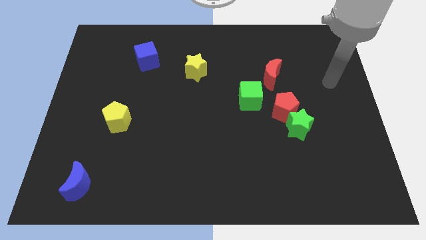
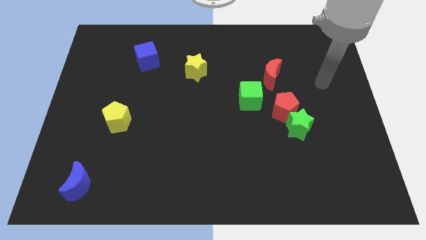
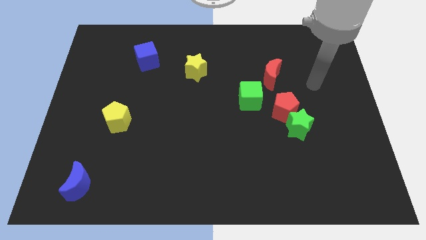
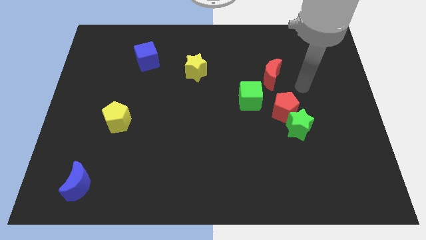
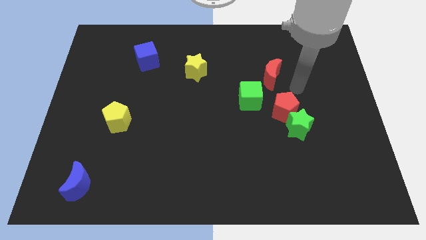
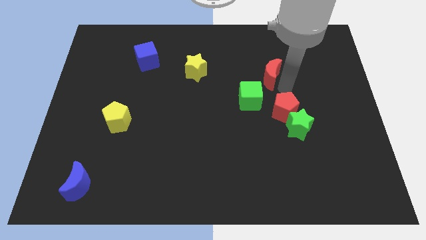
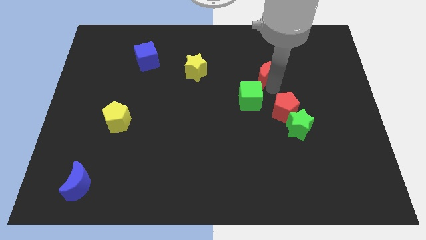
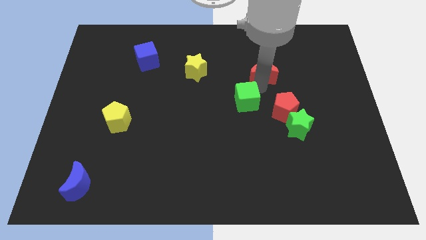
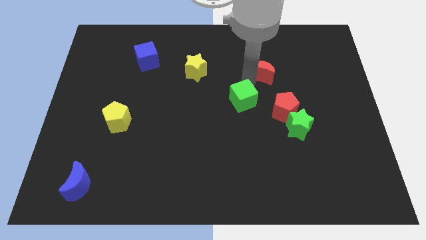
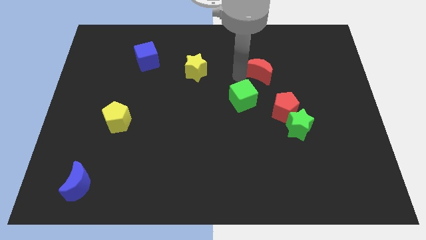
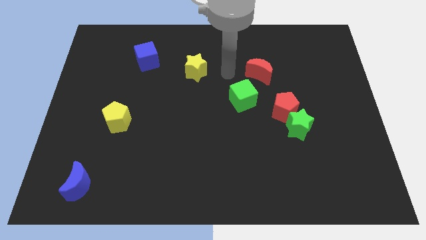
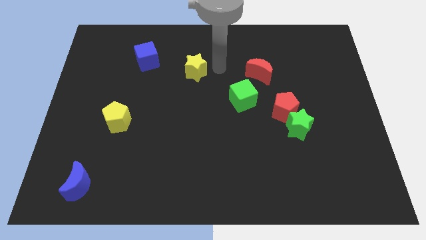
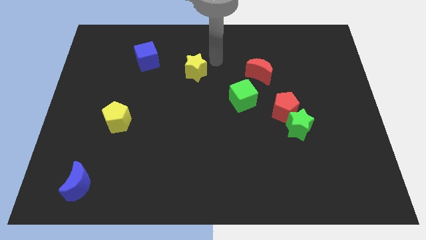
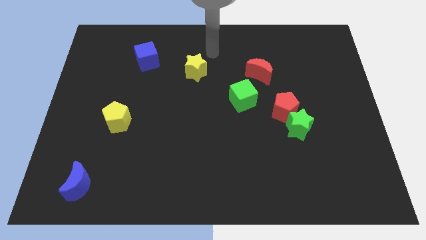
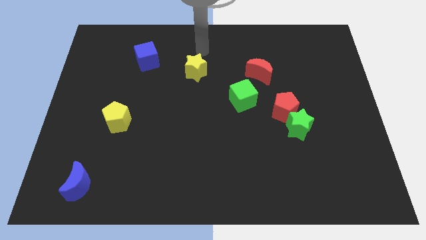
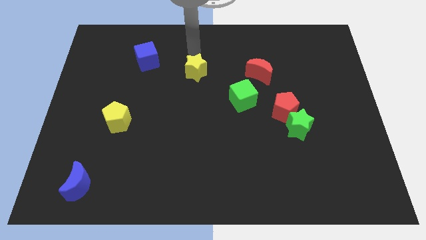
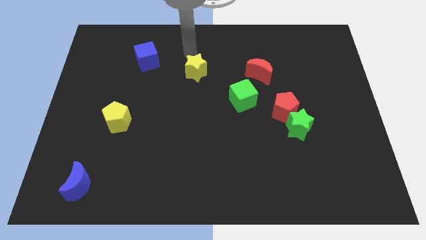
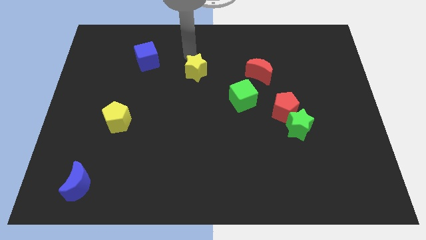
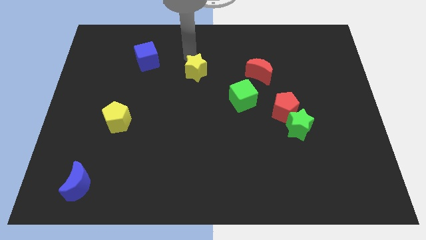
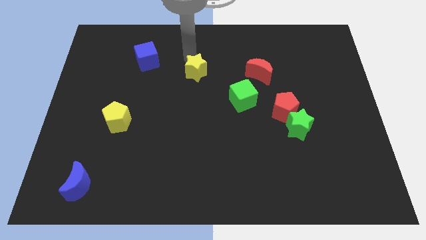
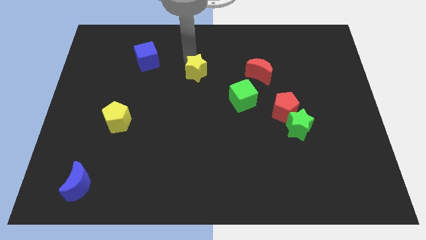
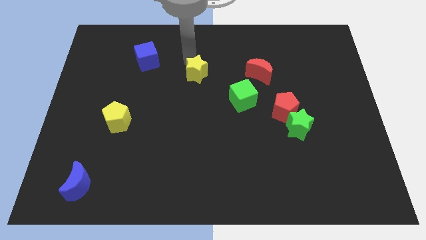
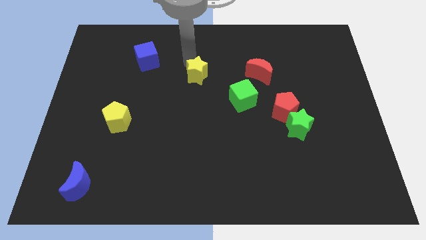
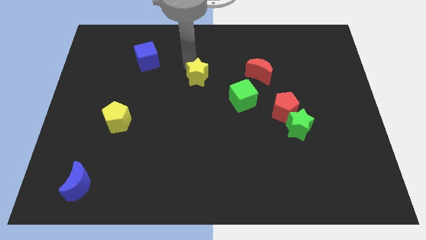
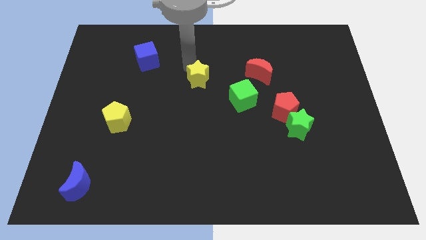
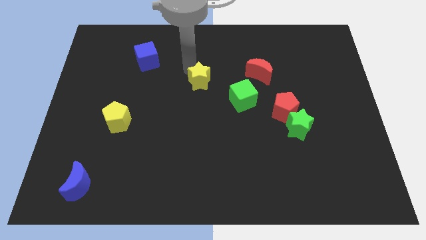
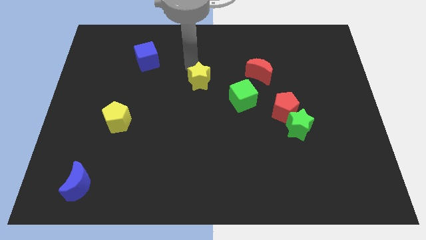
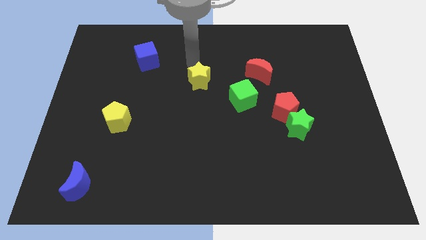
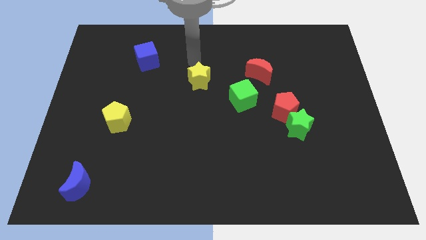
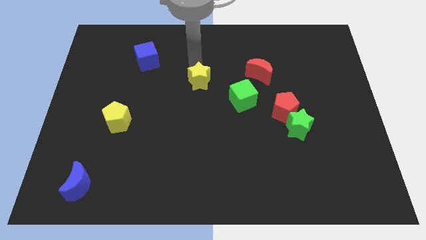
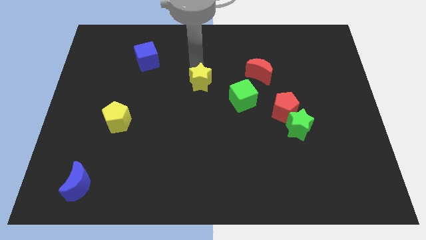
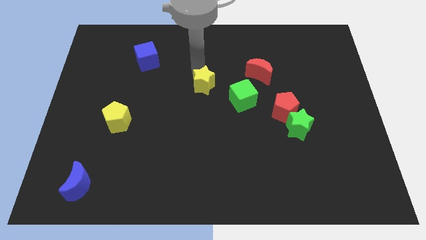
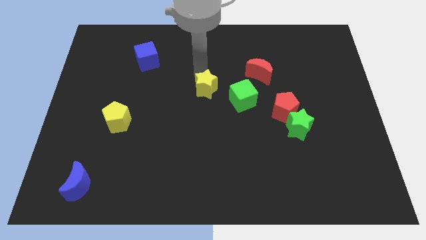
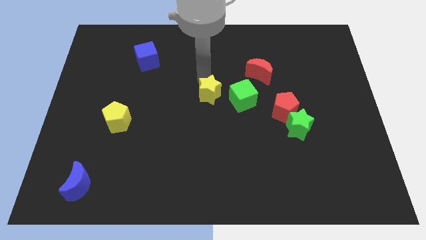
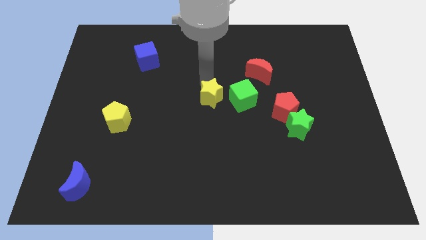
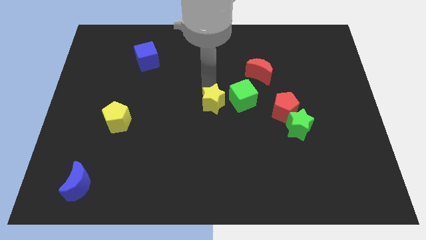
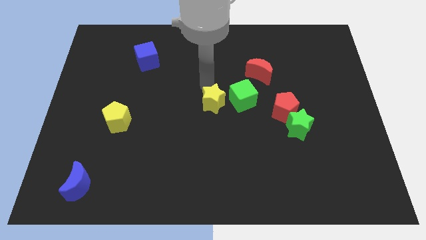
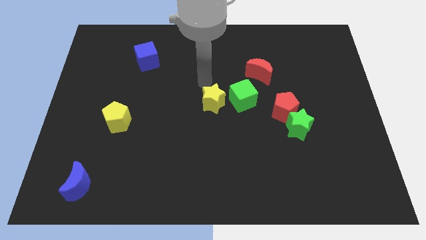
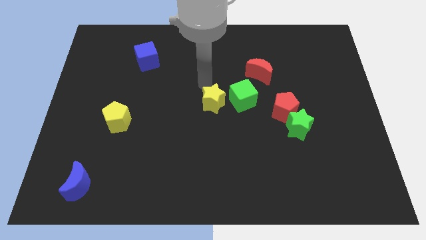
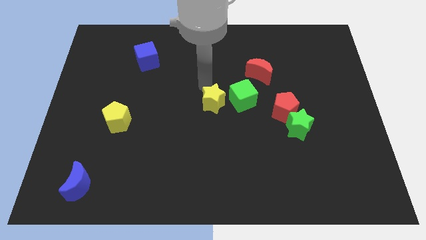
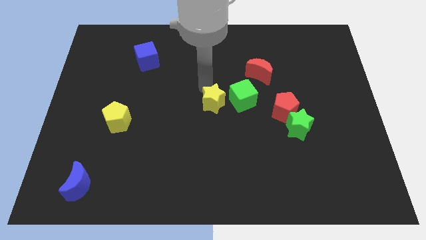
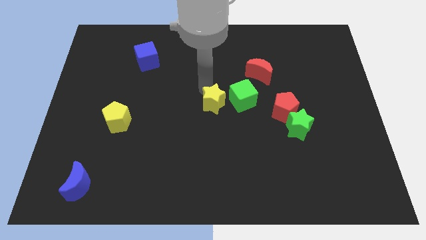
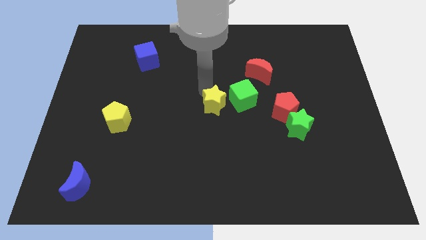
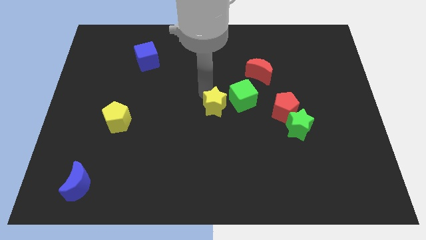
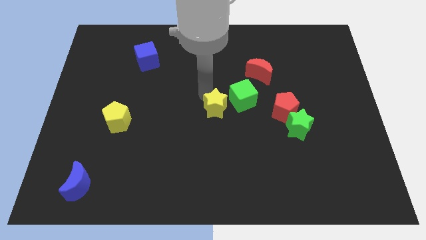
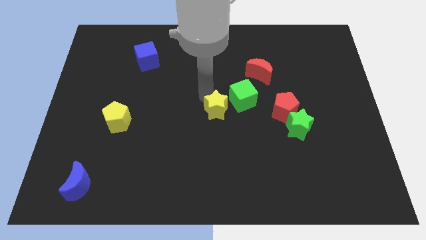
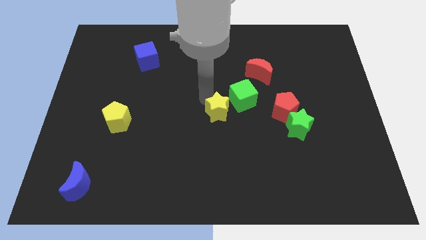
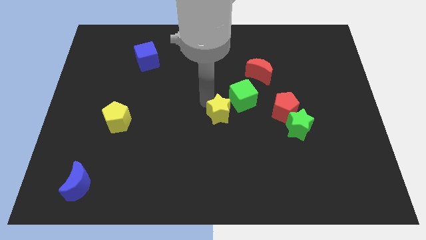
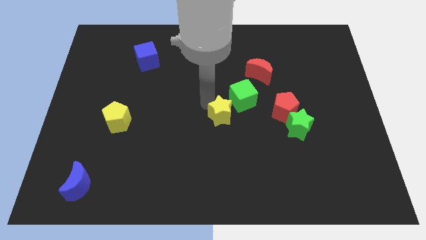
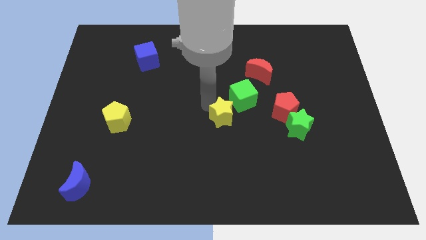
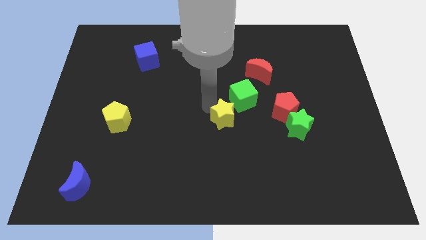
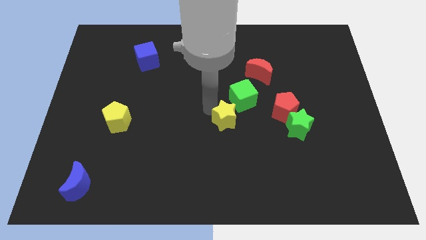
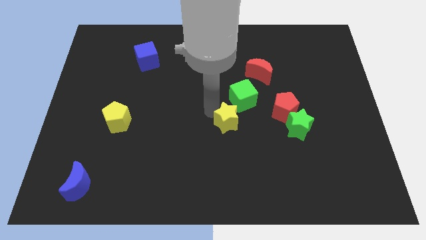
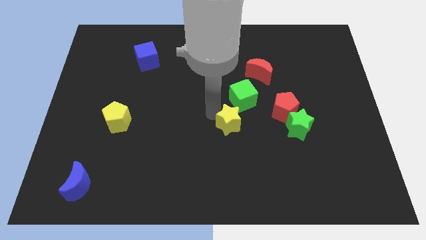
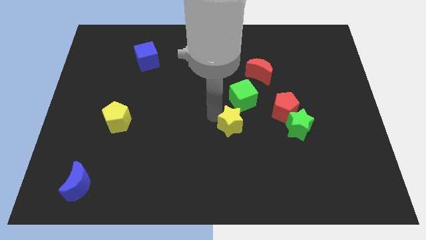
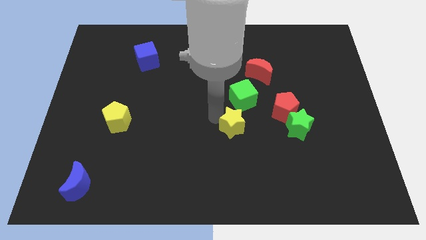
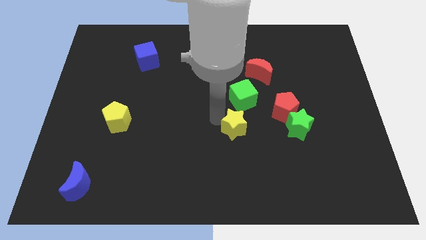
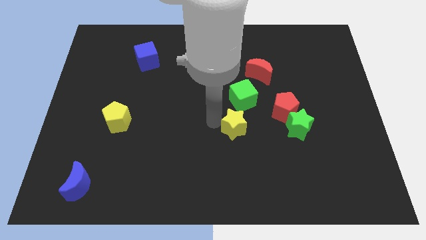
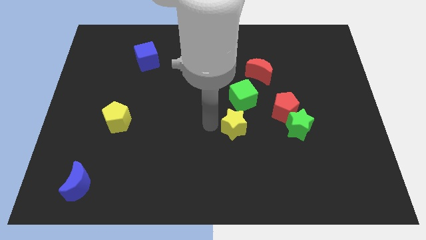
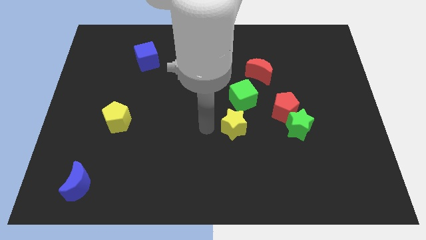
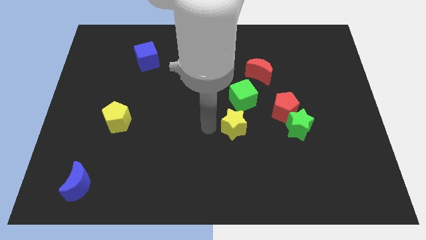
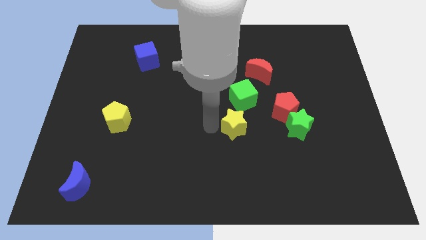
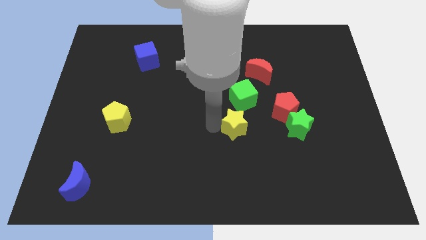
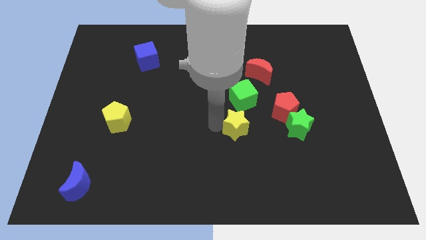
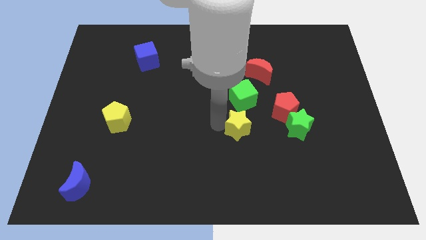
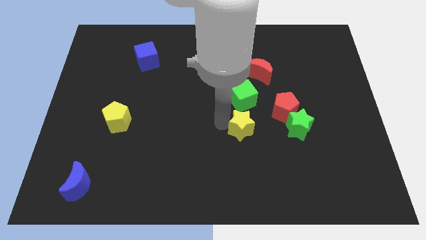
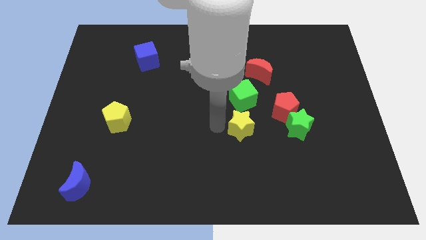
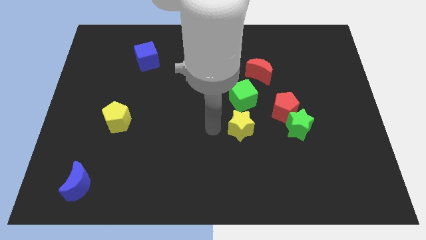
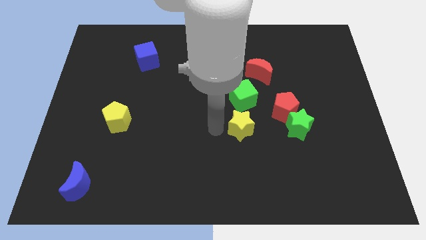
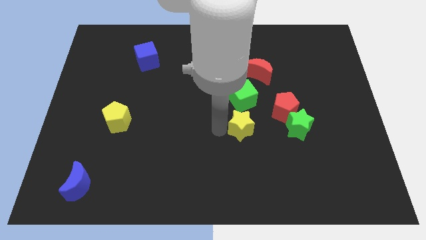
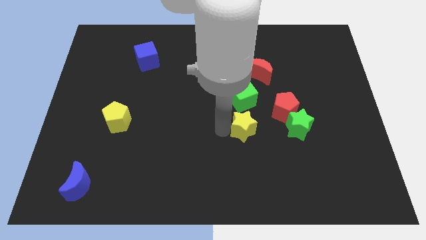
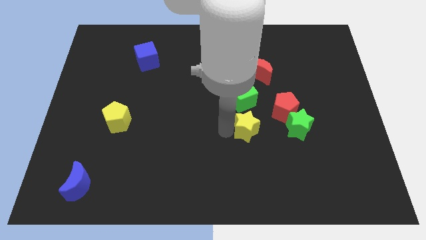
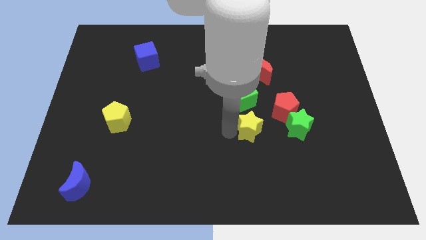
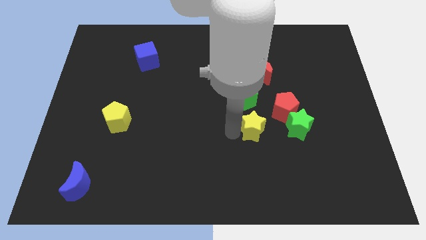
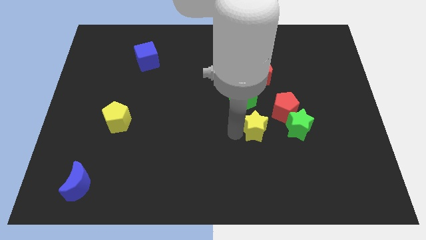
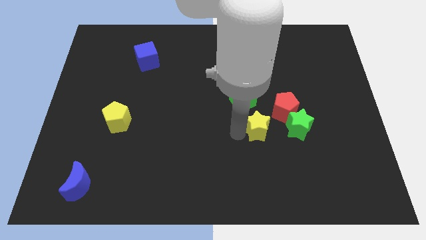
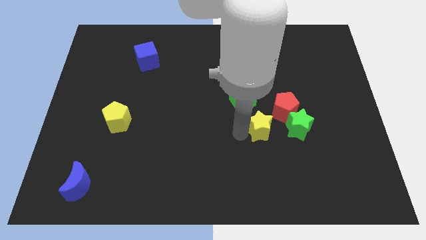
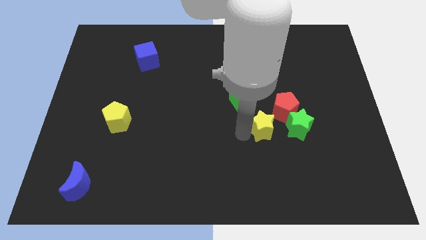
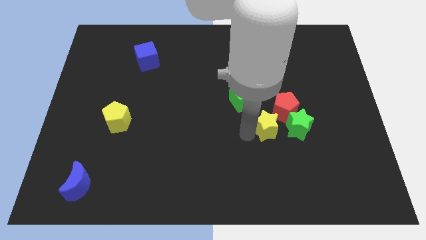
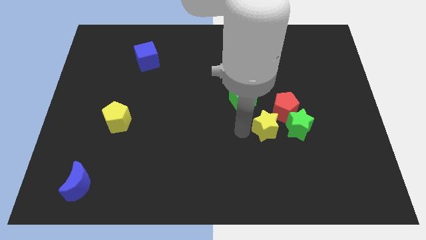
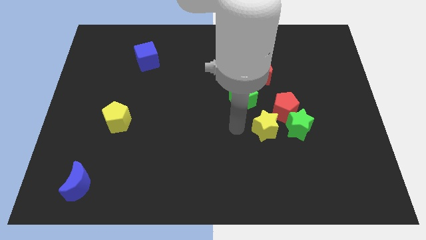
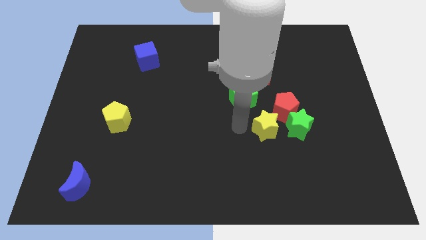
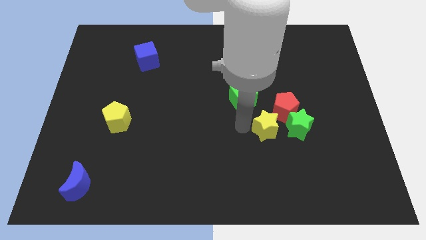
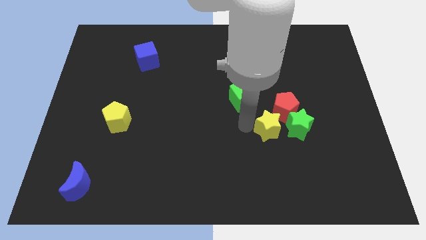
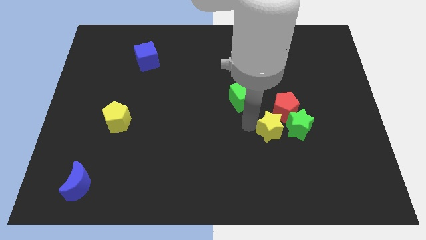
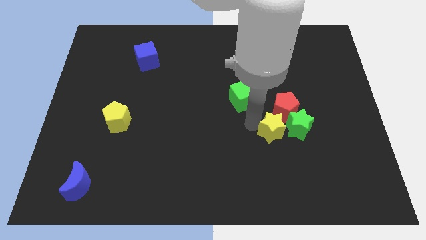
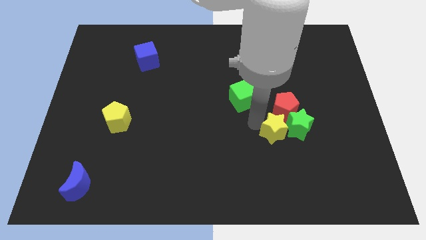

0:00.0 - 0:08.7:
push the yellow star to the green star
